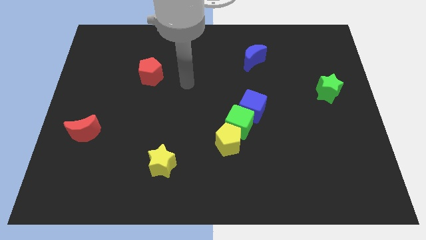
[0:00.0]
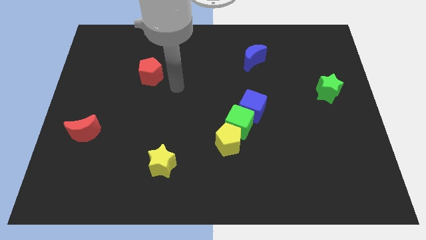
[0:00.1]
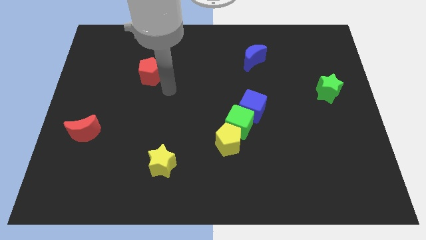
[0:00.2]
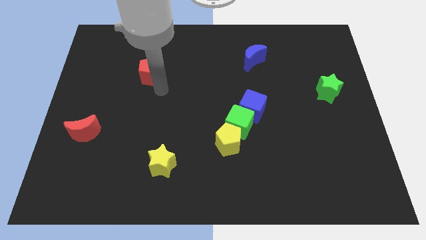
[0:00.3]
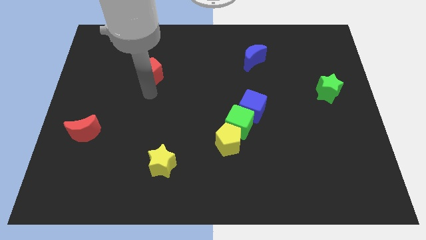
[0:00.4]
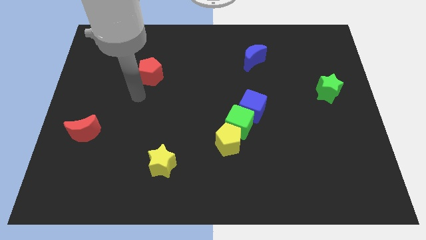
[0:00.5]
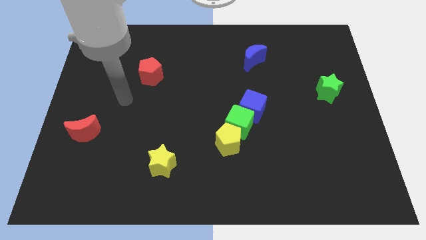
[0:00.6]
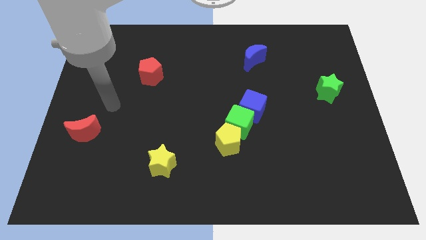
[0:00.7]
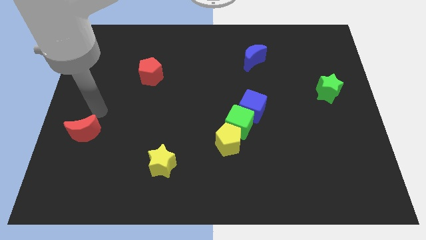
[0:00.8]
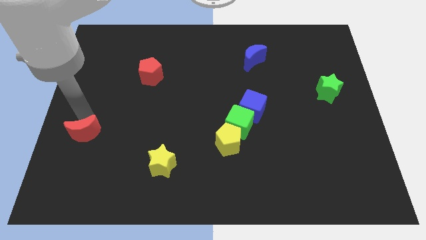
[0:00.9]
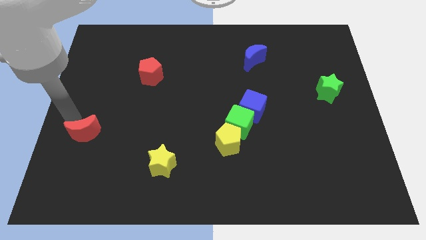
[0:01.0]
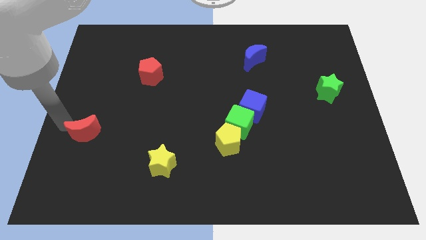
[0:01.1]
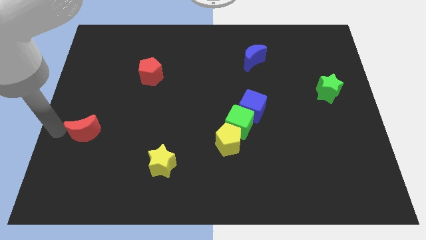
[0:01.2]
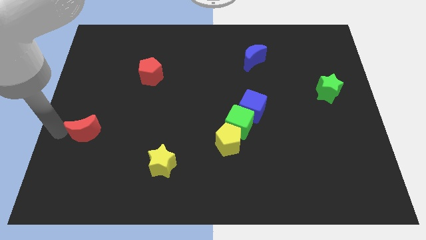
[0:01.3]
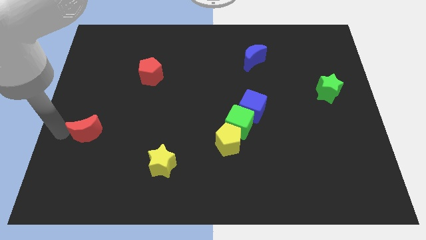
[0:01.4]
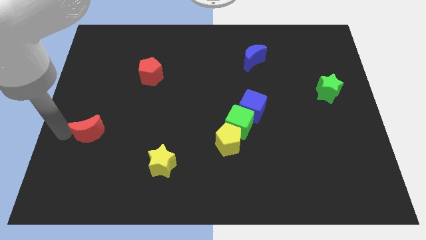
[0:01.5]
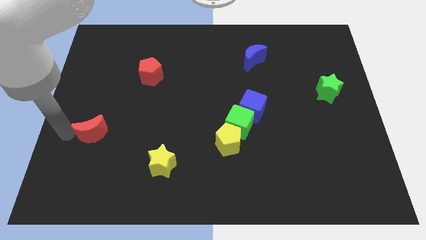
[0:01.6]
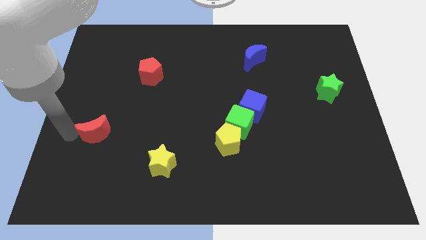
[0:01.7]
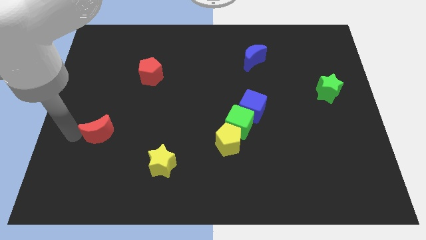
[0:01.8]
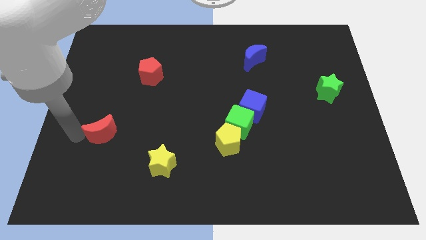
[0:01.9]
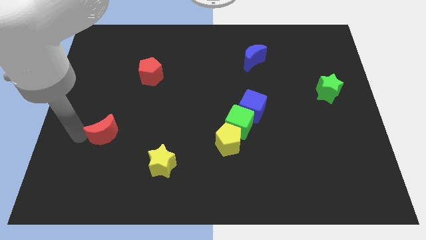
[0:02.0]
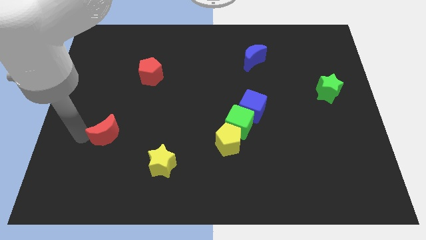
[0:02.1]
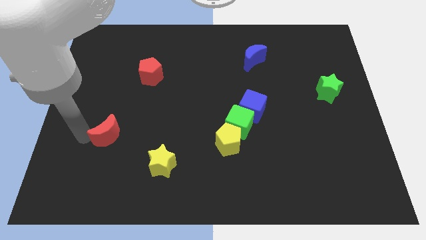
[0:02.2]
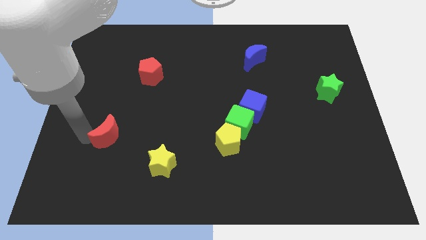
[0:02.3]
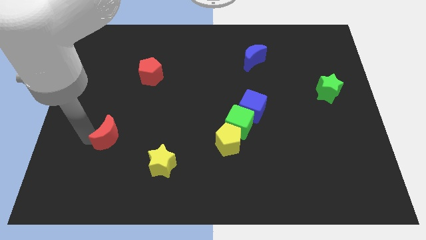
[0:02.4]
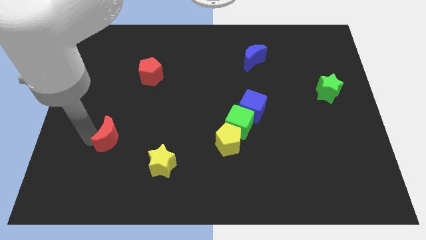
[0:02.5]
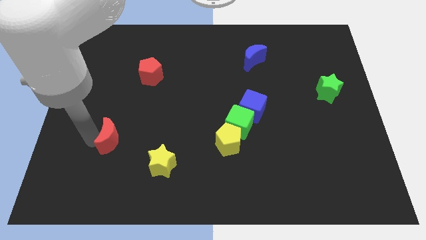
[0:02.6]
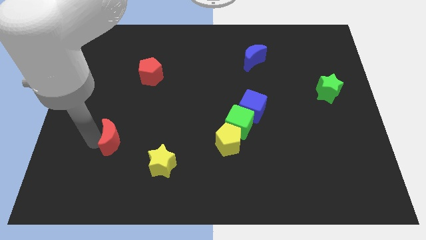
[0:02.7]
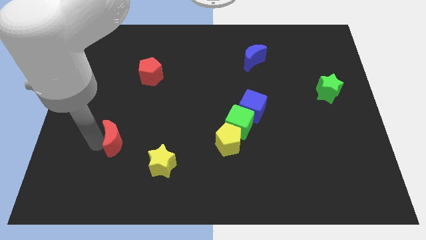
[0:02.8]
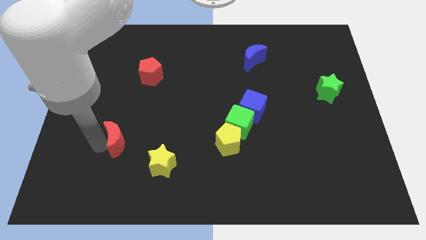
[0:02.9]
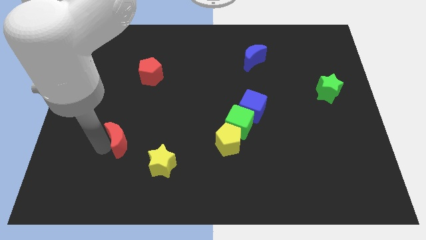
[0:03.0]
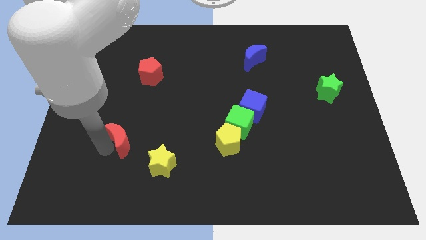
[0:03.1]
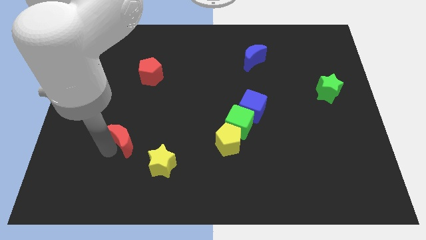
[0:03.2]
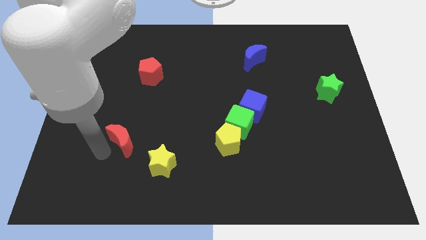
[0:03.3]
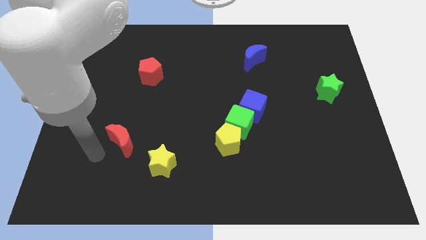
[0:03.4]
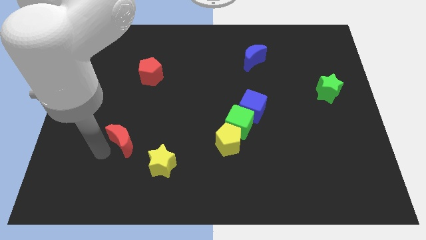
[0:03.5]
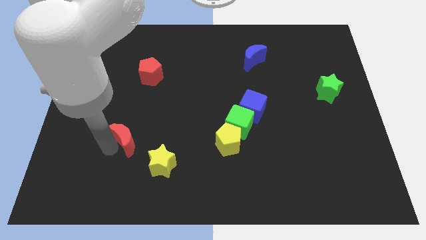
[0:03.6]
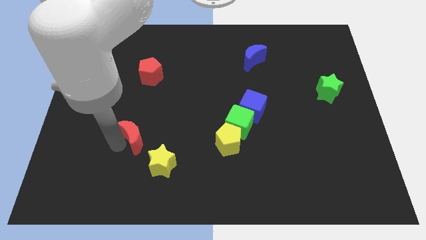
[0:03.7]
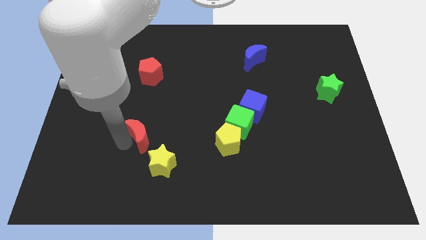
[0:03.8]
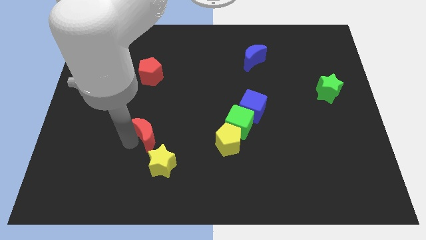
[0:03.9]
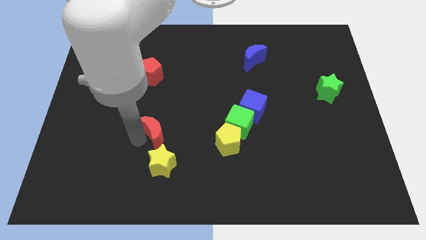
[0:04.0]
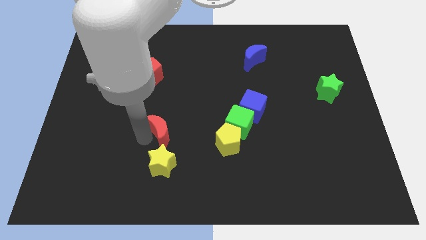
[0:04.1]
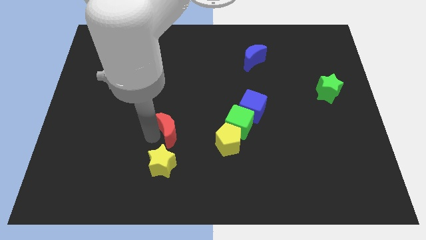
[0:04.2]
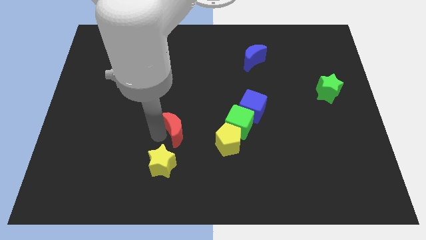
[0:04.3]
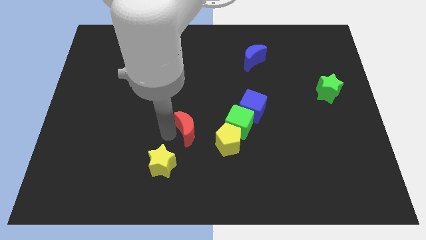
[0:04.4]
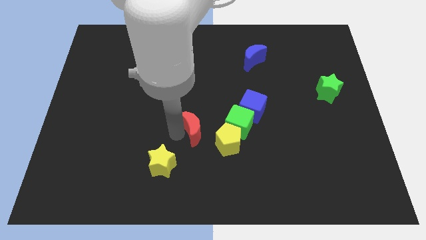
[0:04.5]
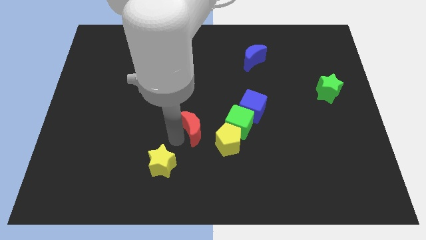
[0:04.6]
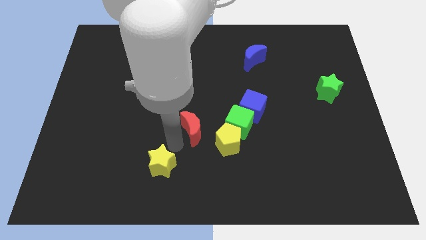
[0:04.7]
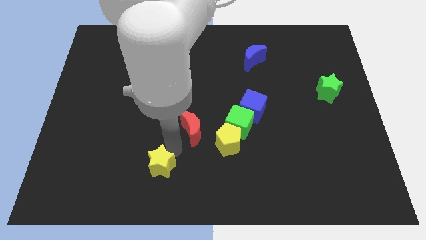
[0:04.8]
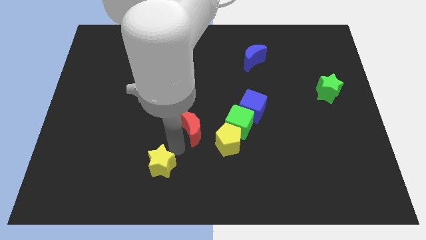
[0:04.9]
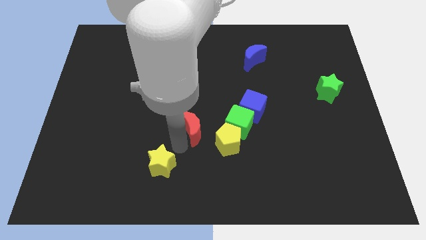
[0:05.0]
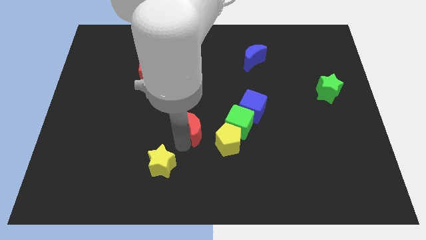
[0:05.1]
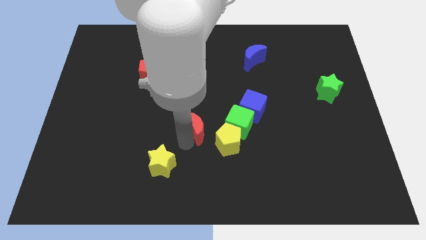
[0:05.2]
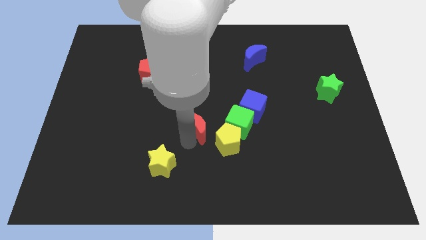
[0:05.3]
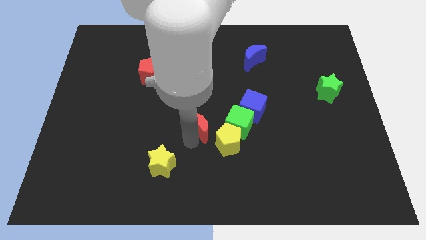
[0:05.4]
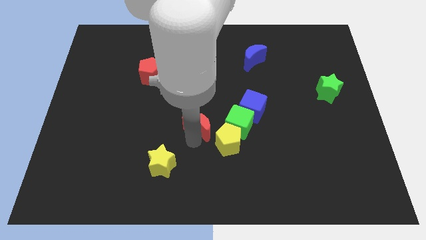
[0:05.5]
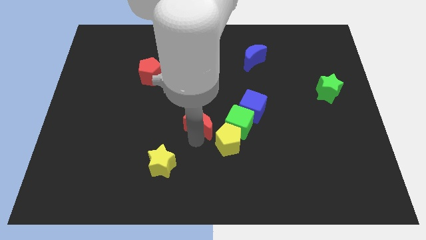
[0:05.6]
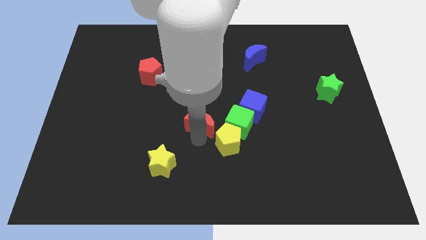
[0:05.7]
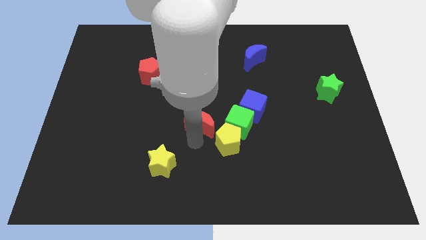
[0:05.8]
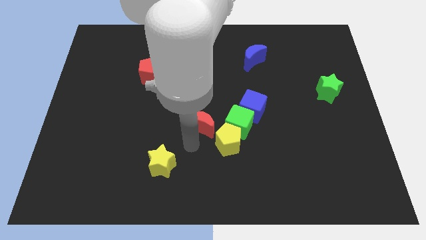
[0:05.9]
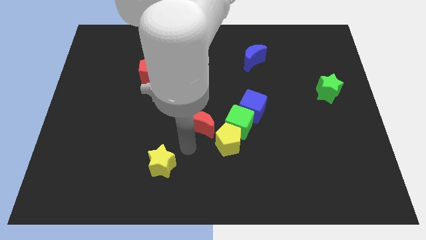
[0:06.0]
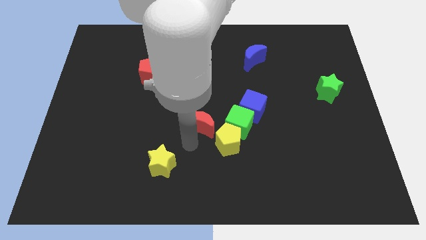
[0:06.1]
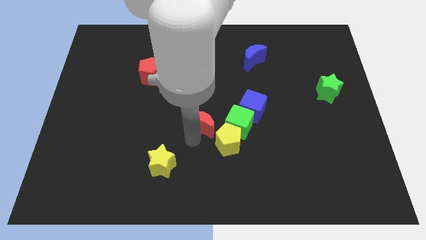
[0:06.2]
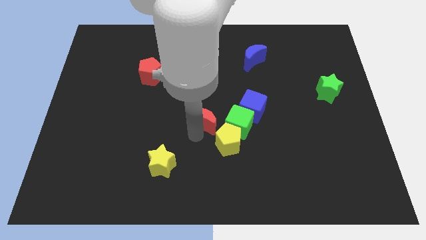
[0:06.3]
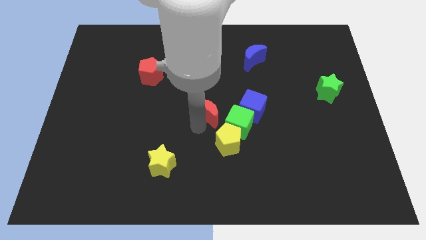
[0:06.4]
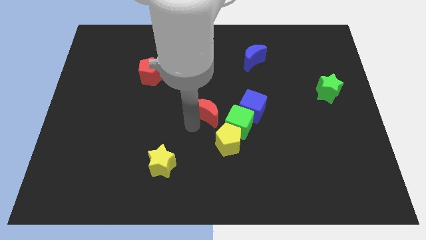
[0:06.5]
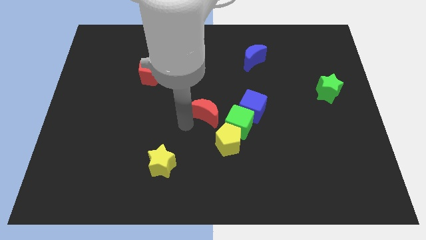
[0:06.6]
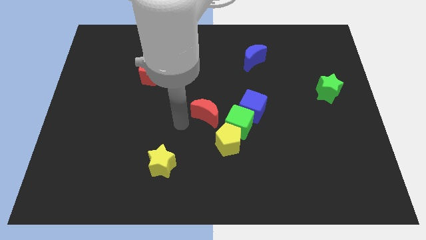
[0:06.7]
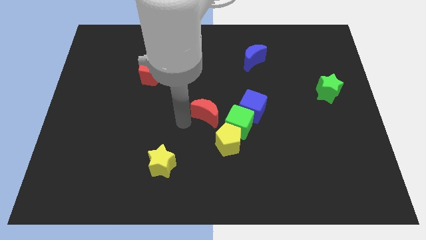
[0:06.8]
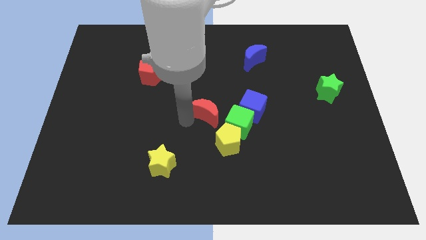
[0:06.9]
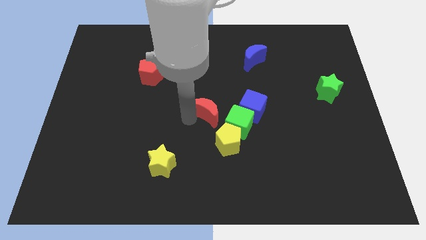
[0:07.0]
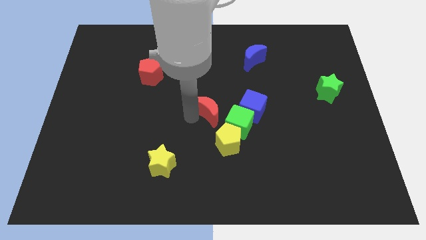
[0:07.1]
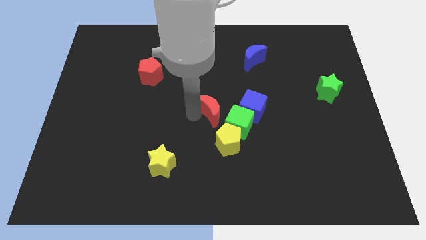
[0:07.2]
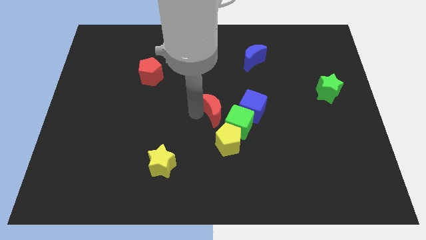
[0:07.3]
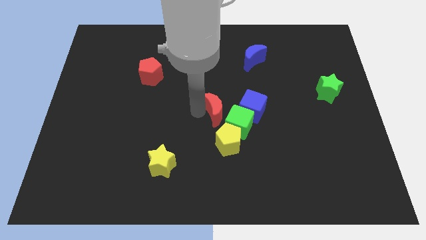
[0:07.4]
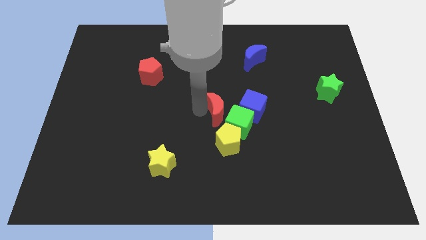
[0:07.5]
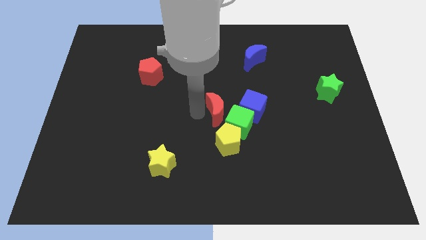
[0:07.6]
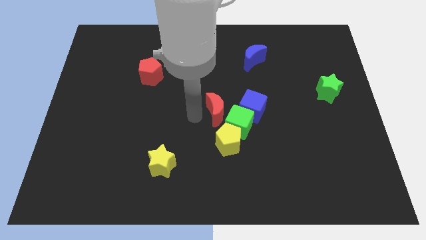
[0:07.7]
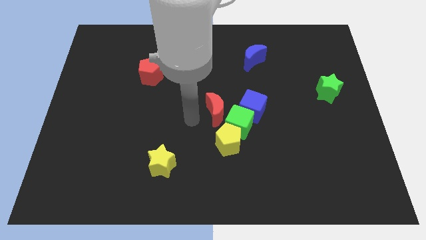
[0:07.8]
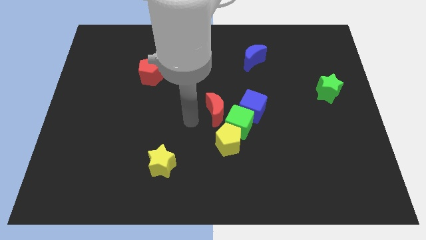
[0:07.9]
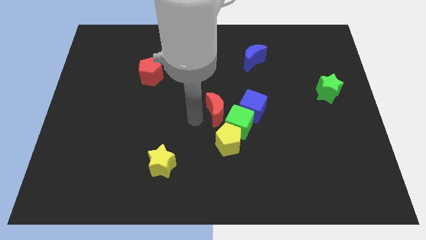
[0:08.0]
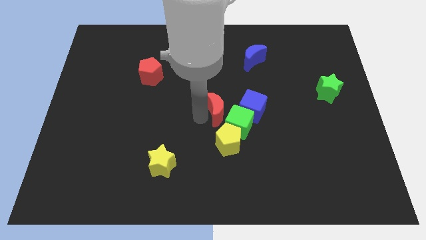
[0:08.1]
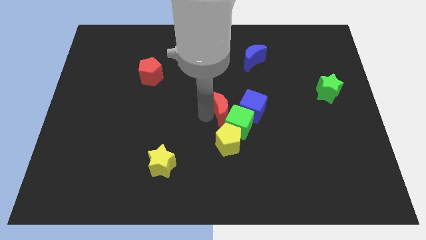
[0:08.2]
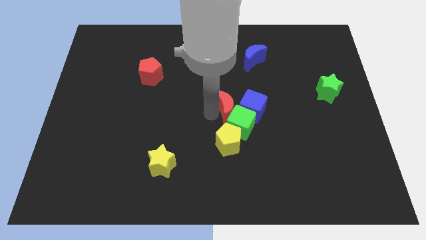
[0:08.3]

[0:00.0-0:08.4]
push the red moon next to the blue cube
